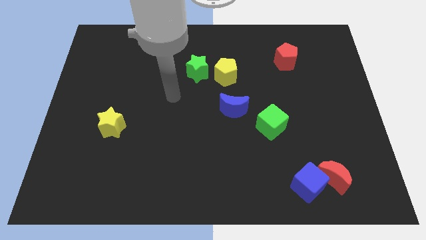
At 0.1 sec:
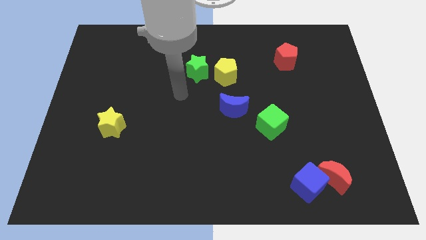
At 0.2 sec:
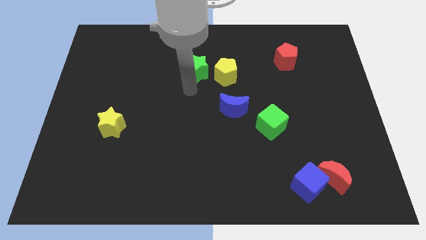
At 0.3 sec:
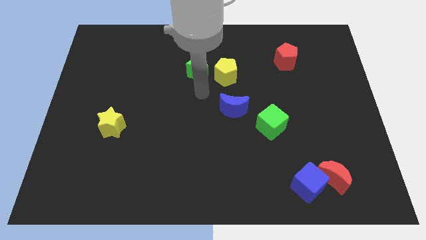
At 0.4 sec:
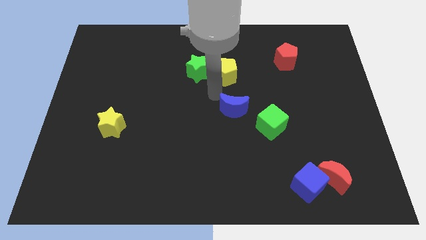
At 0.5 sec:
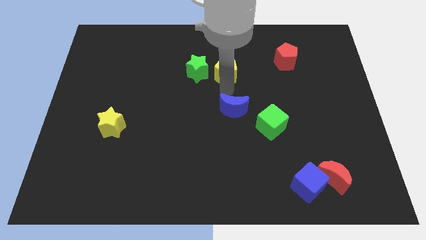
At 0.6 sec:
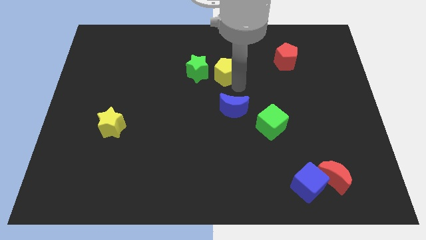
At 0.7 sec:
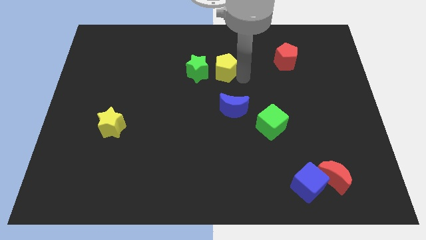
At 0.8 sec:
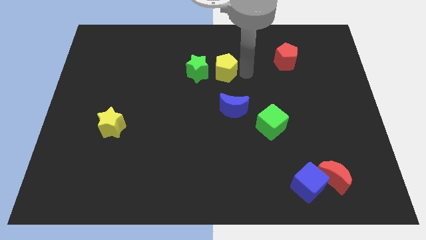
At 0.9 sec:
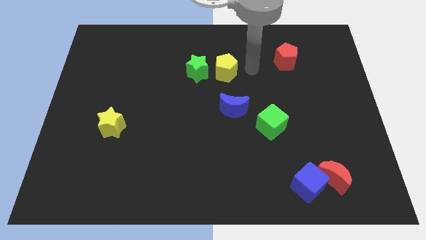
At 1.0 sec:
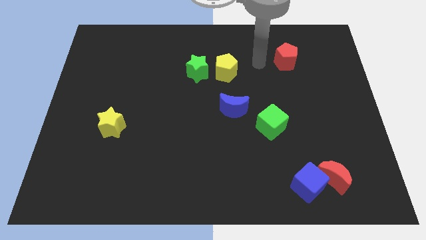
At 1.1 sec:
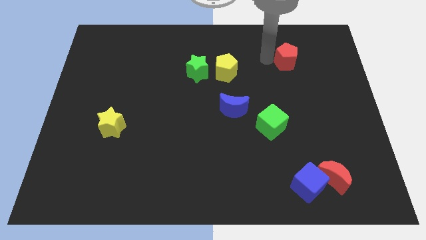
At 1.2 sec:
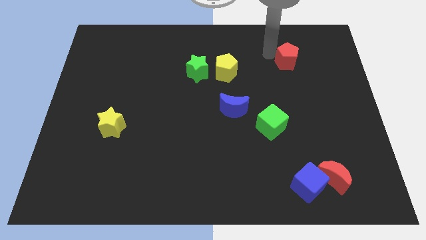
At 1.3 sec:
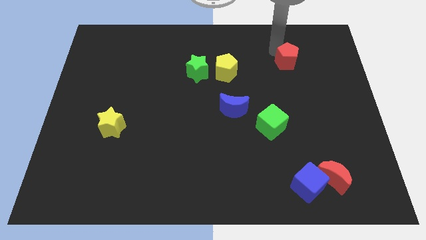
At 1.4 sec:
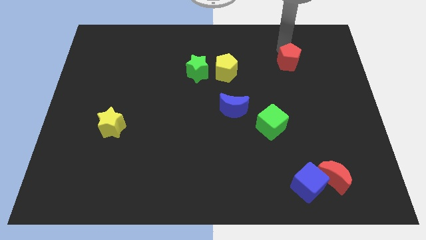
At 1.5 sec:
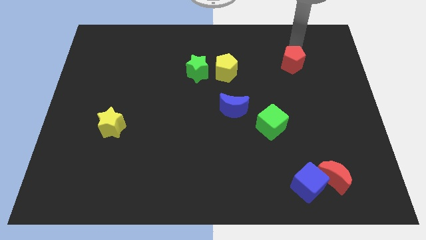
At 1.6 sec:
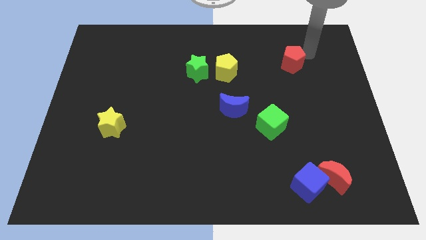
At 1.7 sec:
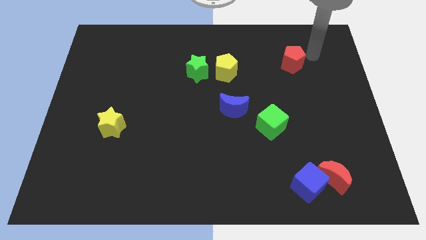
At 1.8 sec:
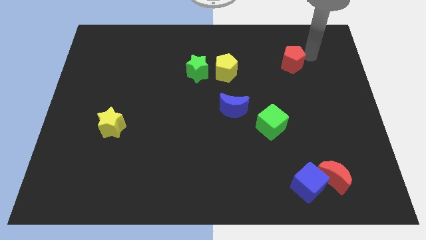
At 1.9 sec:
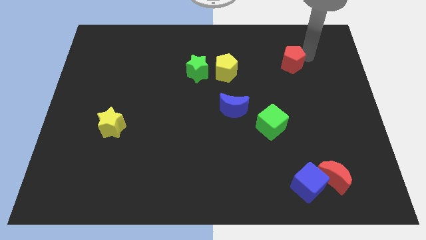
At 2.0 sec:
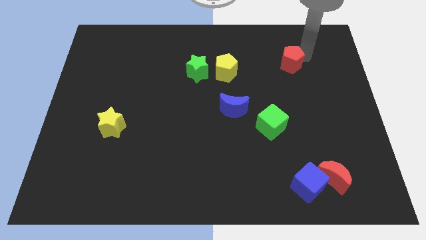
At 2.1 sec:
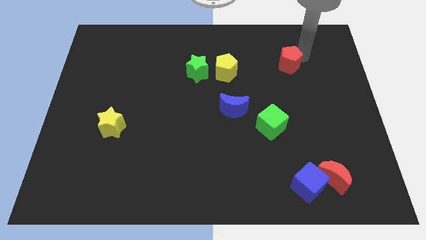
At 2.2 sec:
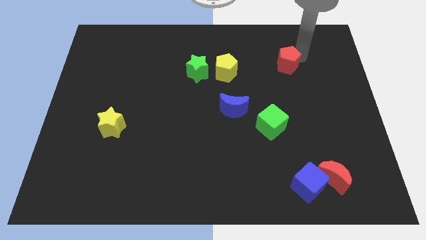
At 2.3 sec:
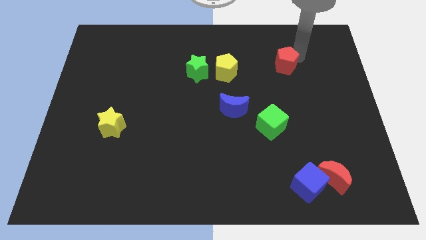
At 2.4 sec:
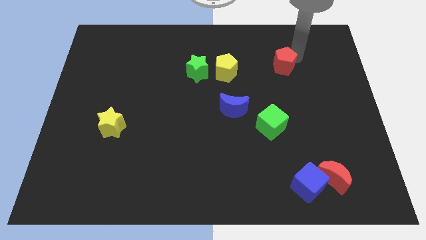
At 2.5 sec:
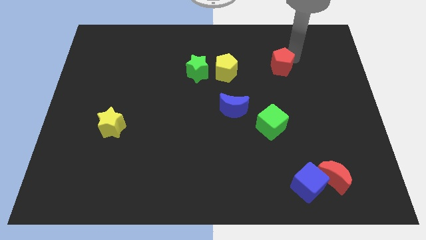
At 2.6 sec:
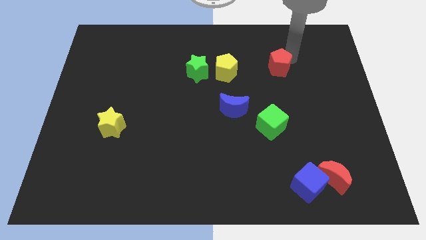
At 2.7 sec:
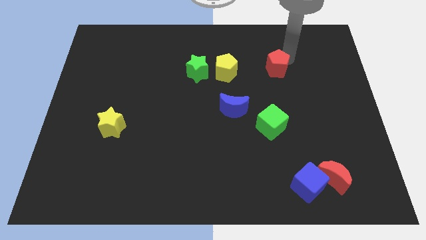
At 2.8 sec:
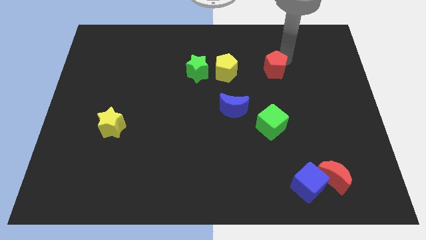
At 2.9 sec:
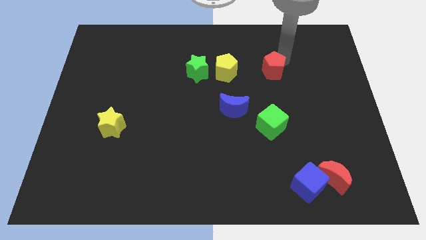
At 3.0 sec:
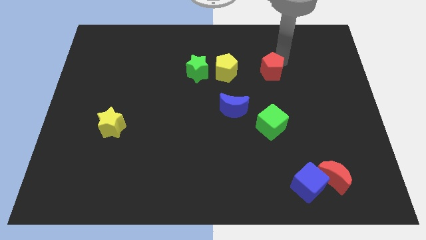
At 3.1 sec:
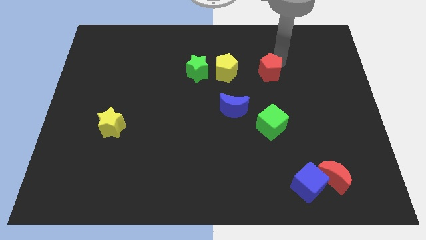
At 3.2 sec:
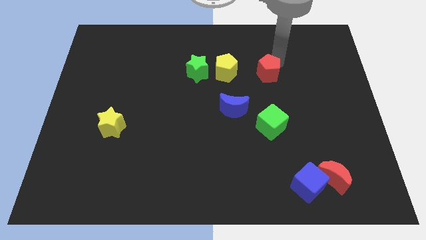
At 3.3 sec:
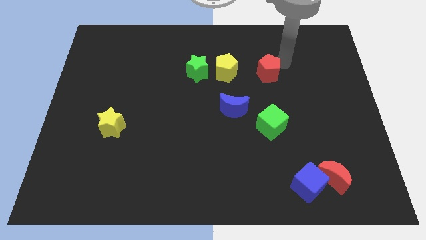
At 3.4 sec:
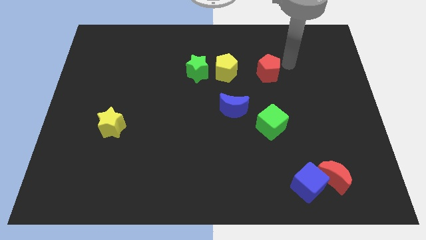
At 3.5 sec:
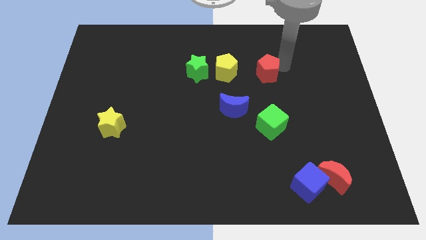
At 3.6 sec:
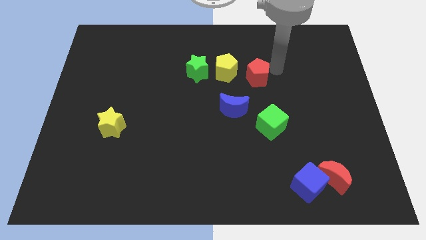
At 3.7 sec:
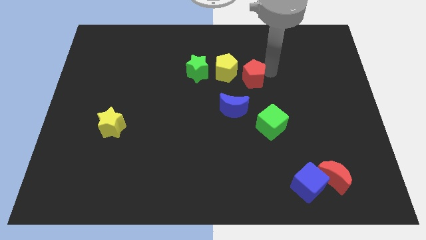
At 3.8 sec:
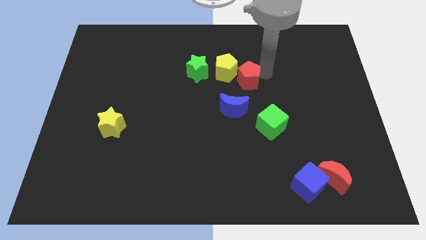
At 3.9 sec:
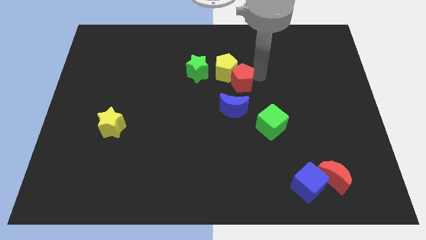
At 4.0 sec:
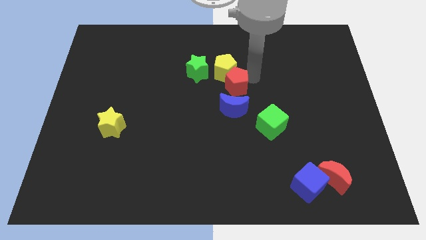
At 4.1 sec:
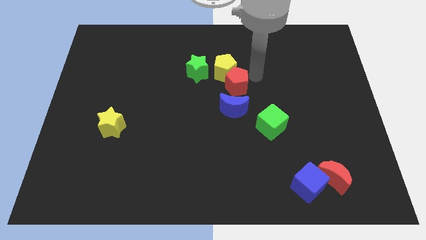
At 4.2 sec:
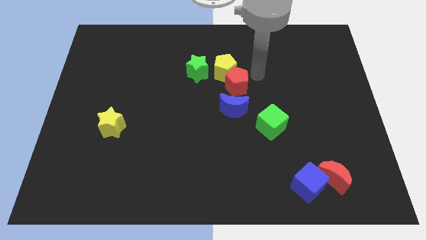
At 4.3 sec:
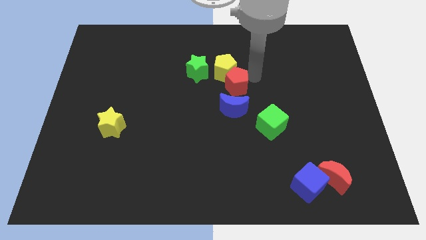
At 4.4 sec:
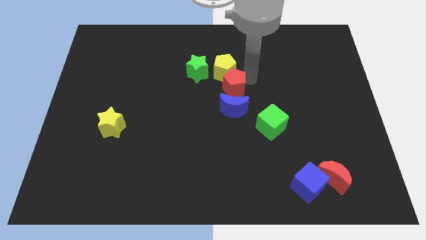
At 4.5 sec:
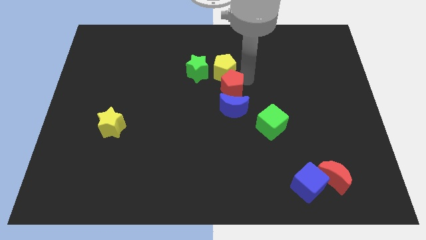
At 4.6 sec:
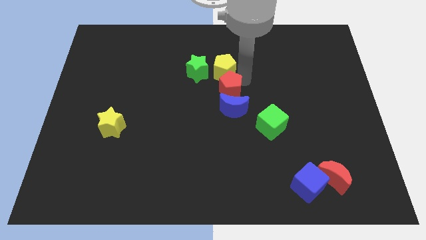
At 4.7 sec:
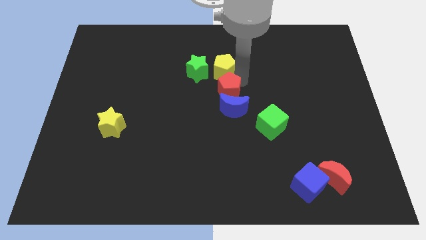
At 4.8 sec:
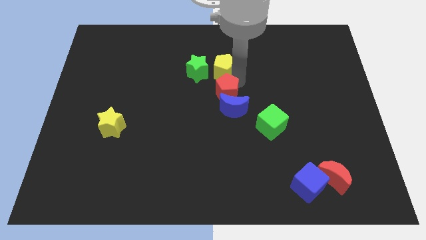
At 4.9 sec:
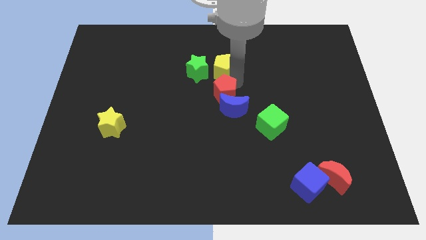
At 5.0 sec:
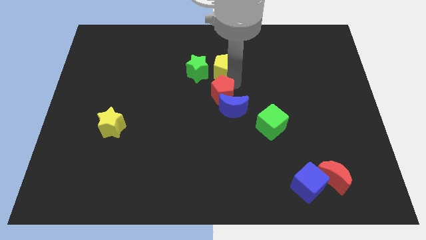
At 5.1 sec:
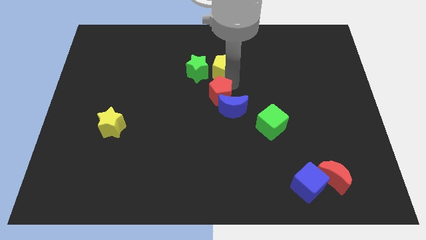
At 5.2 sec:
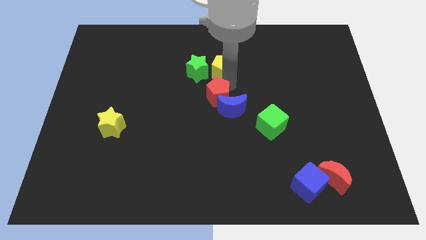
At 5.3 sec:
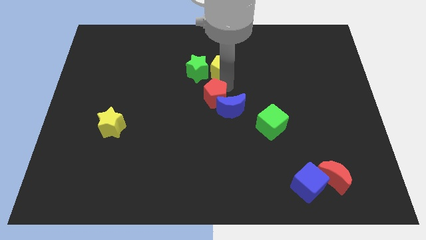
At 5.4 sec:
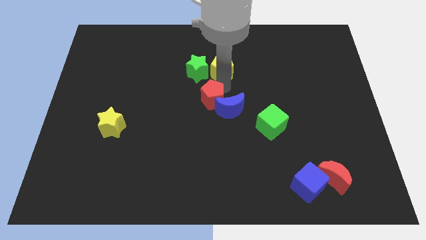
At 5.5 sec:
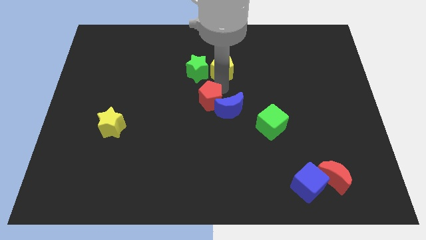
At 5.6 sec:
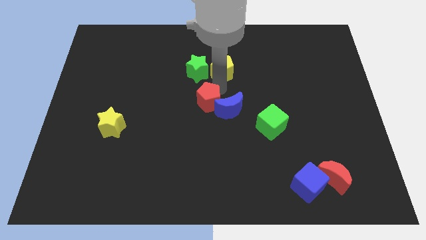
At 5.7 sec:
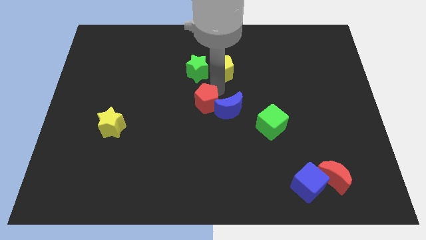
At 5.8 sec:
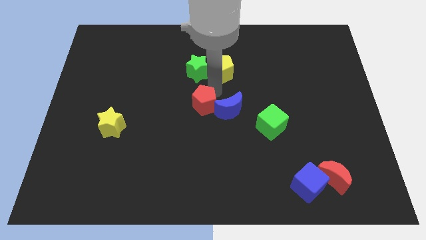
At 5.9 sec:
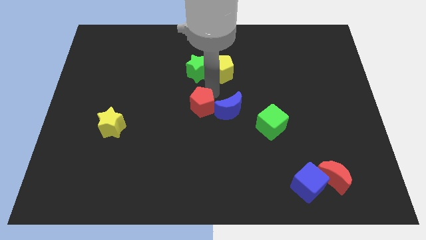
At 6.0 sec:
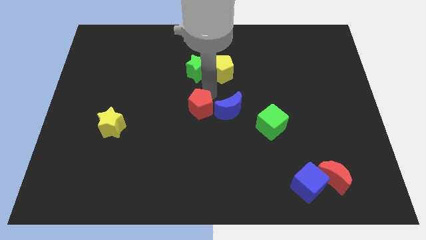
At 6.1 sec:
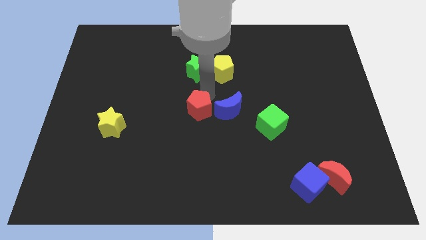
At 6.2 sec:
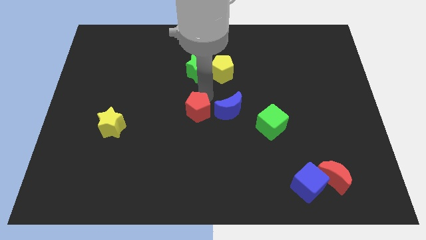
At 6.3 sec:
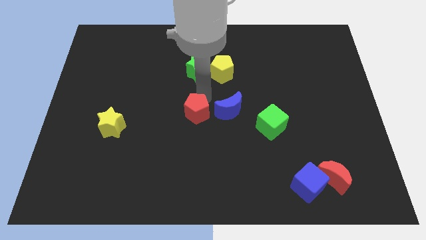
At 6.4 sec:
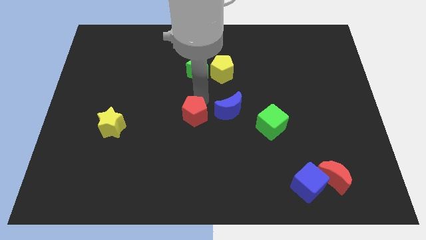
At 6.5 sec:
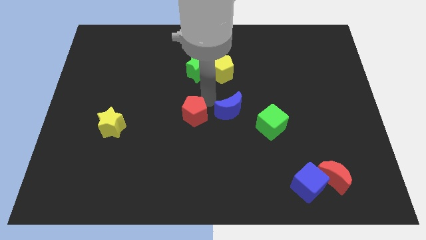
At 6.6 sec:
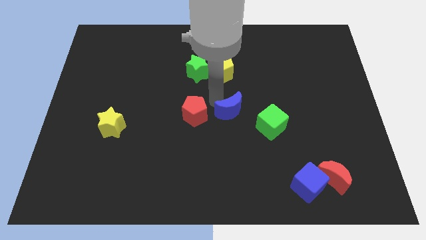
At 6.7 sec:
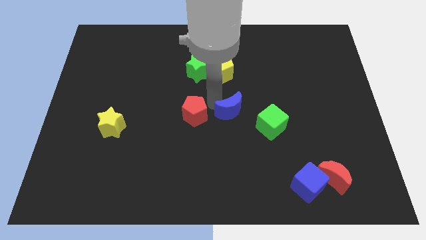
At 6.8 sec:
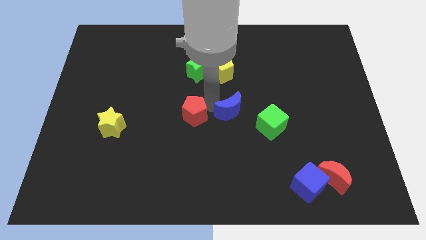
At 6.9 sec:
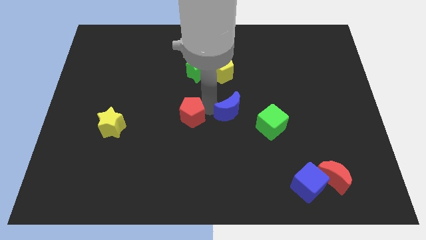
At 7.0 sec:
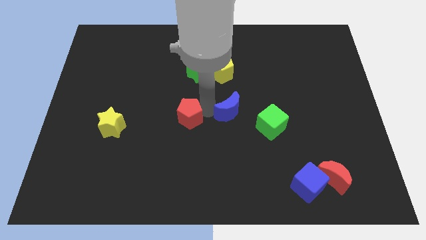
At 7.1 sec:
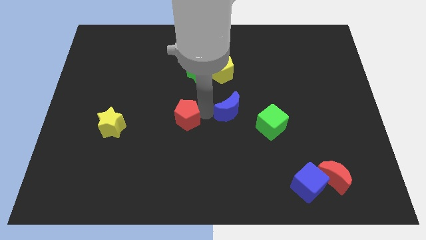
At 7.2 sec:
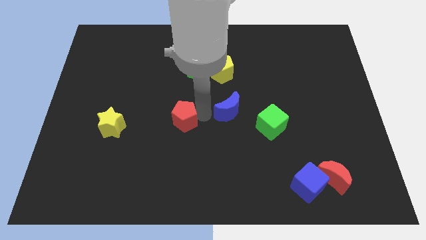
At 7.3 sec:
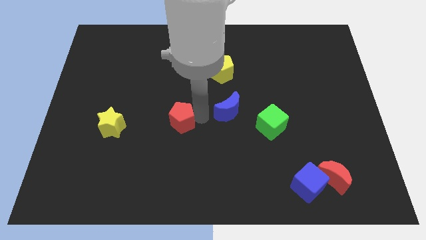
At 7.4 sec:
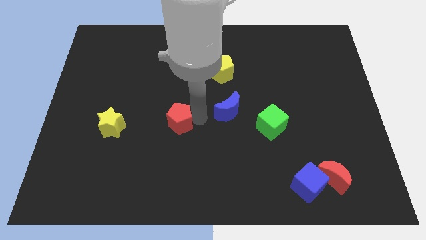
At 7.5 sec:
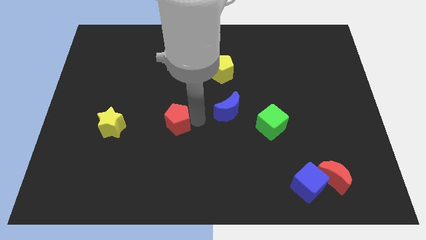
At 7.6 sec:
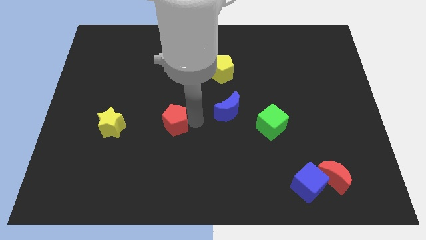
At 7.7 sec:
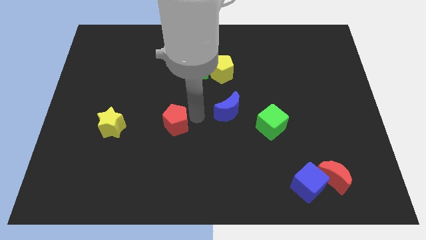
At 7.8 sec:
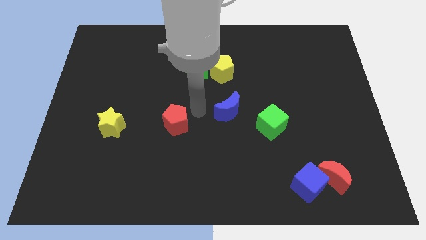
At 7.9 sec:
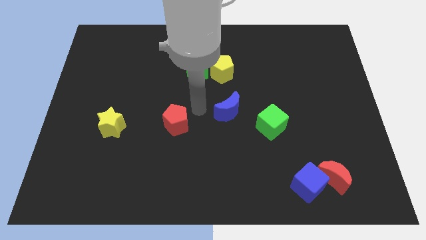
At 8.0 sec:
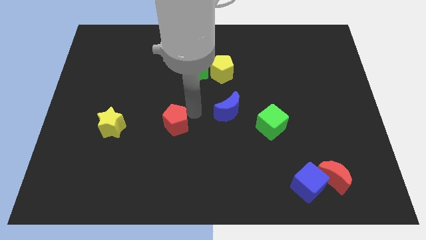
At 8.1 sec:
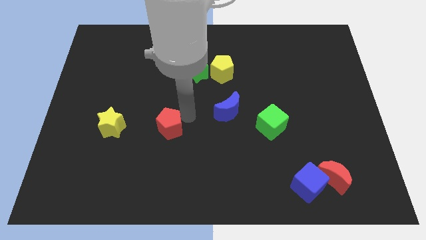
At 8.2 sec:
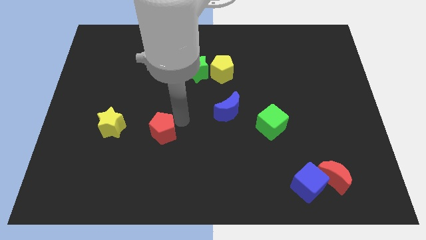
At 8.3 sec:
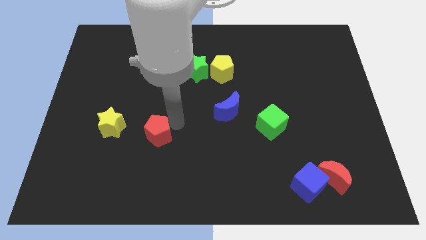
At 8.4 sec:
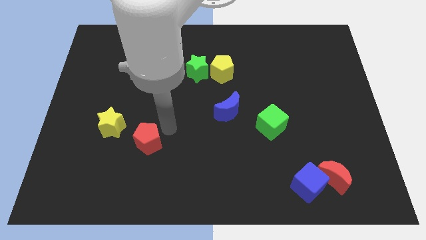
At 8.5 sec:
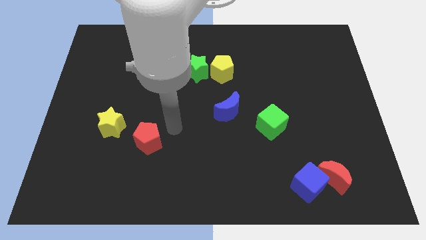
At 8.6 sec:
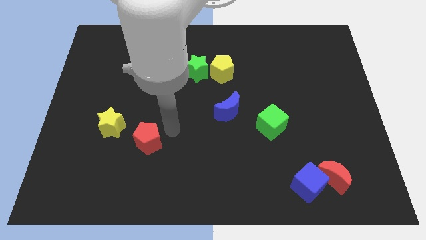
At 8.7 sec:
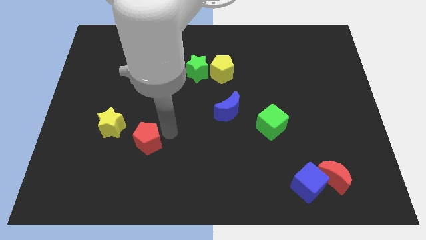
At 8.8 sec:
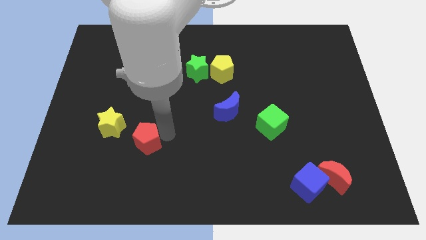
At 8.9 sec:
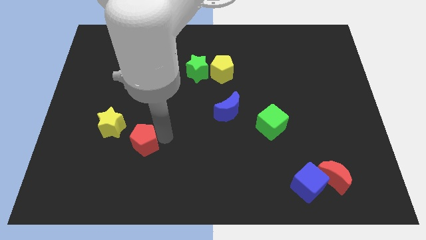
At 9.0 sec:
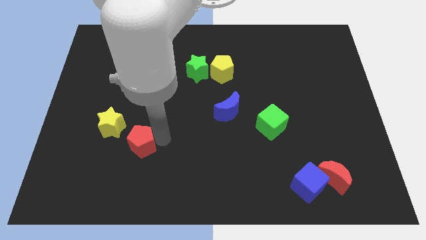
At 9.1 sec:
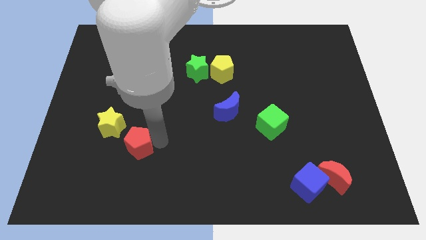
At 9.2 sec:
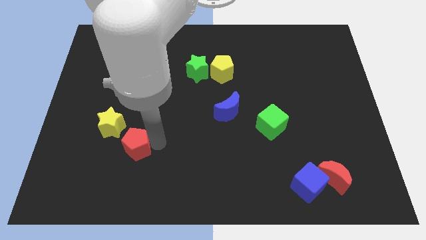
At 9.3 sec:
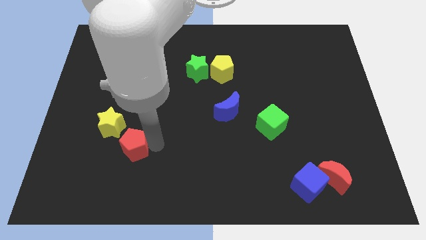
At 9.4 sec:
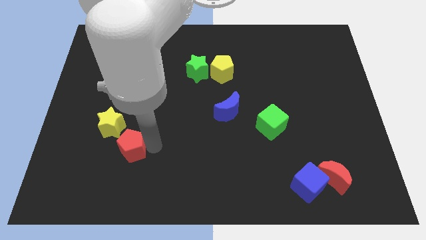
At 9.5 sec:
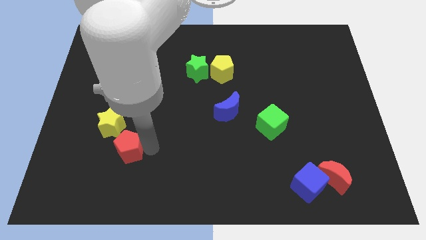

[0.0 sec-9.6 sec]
push the red pentagon to the bottom side of the yellow star
